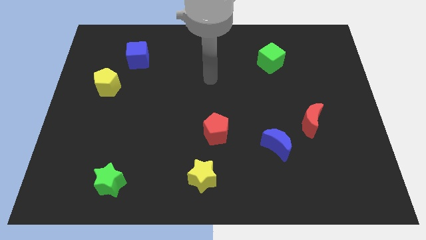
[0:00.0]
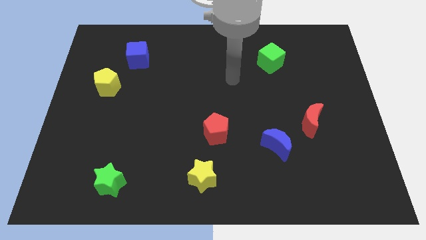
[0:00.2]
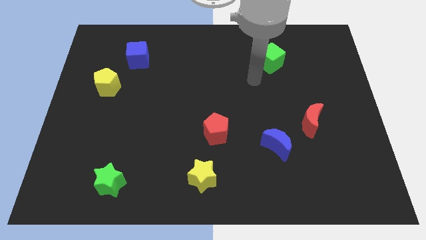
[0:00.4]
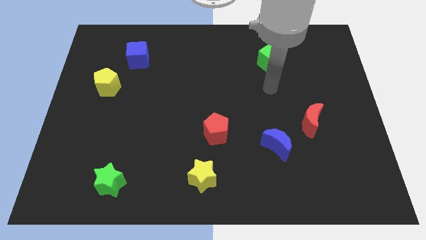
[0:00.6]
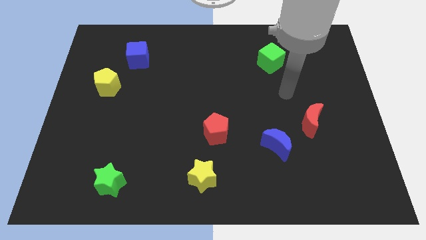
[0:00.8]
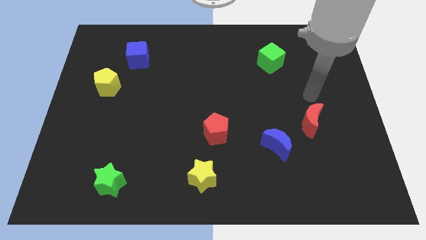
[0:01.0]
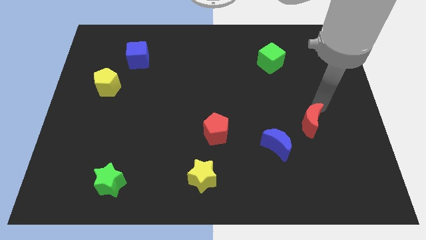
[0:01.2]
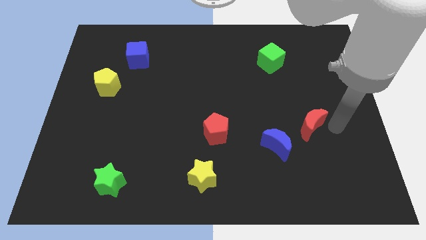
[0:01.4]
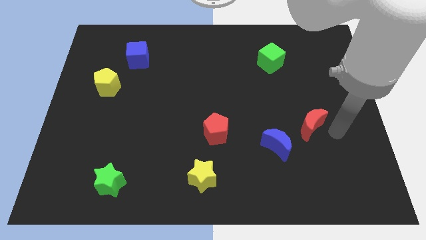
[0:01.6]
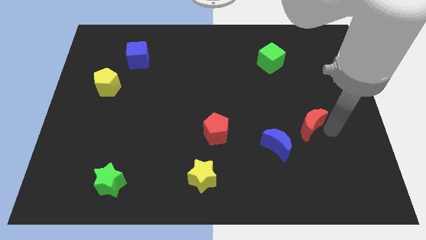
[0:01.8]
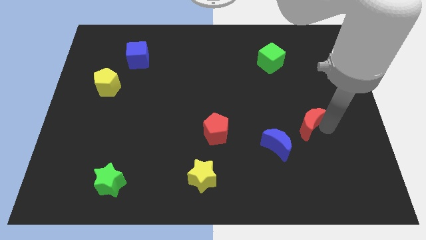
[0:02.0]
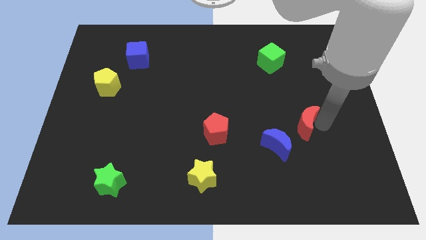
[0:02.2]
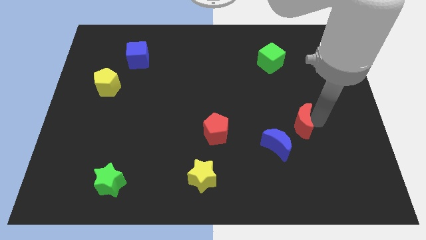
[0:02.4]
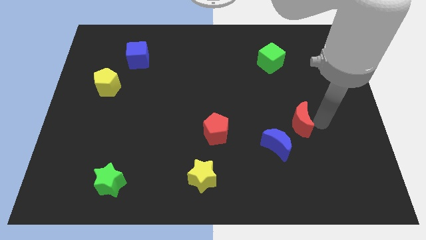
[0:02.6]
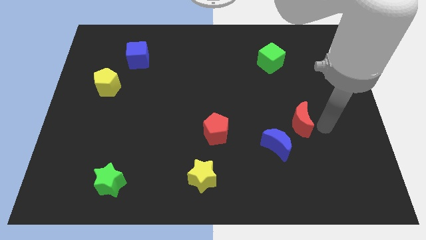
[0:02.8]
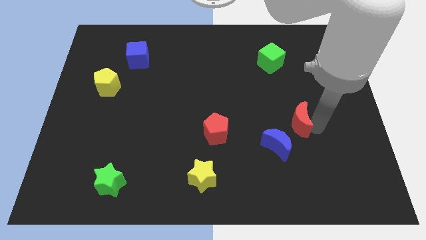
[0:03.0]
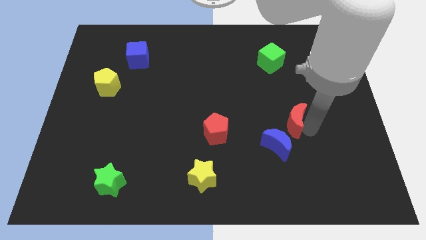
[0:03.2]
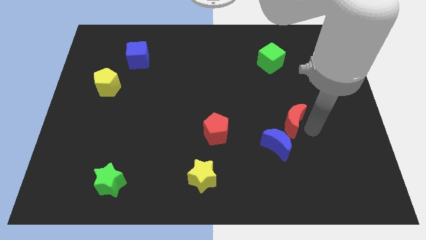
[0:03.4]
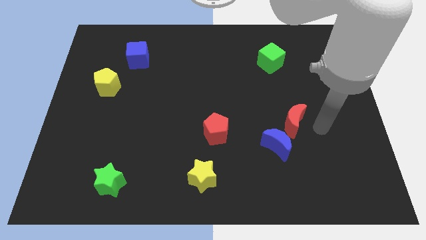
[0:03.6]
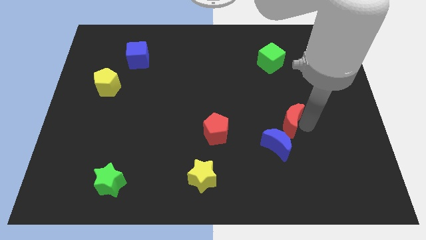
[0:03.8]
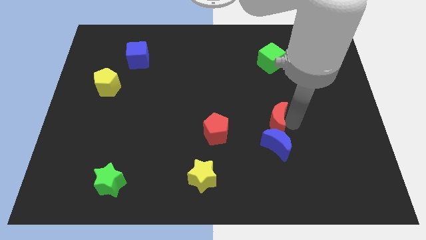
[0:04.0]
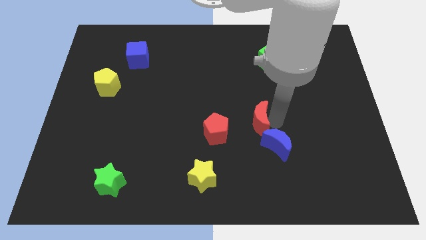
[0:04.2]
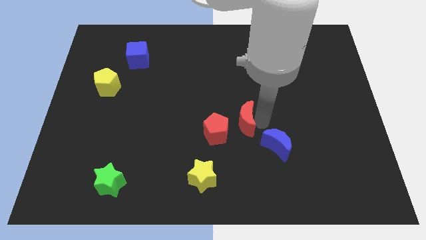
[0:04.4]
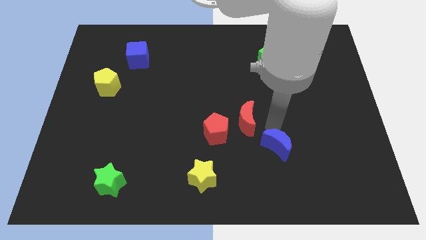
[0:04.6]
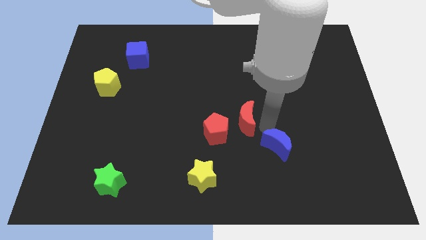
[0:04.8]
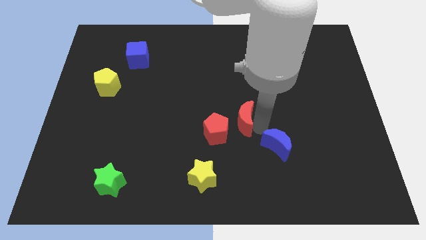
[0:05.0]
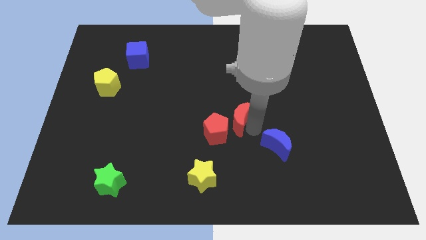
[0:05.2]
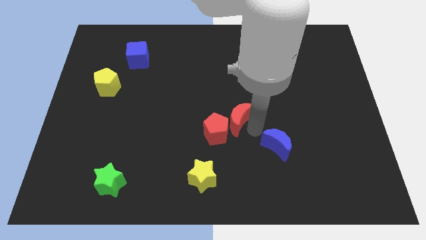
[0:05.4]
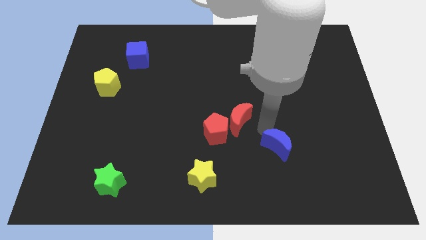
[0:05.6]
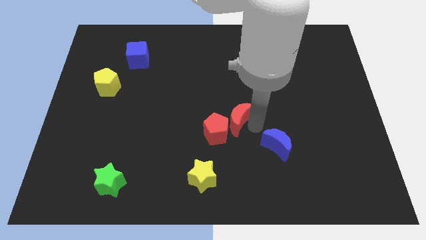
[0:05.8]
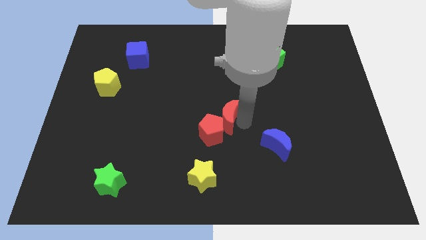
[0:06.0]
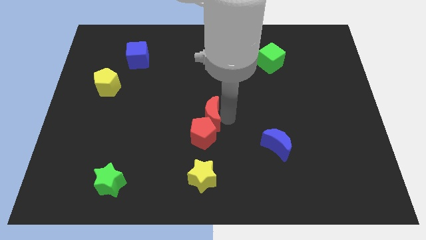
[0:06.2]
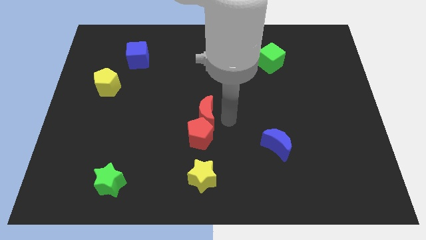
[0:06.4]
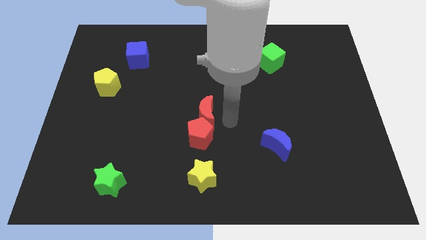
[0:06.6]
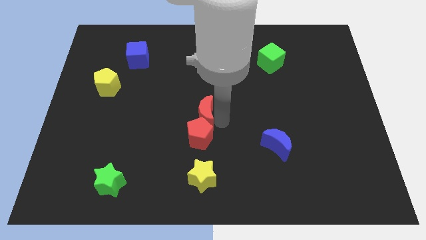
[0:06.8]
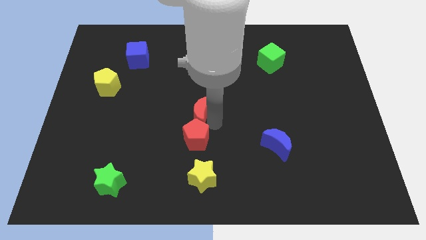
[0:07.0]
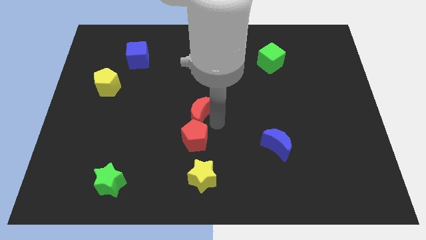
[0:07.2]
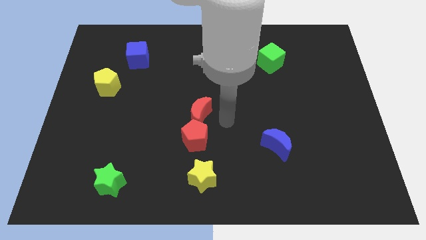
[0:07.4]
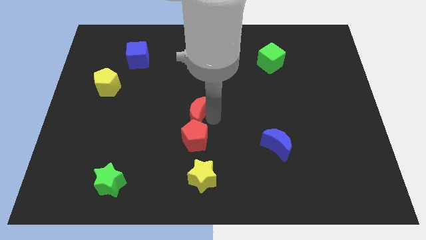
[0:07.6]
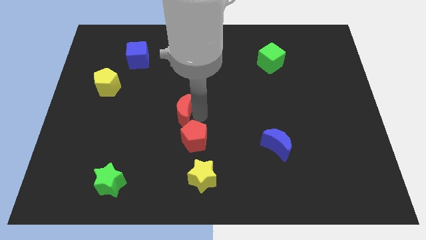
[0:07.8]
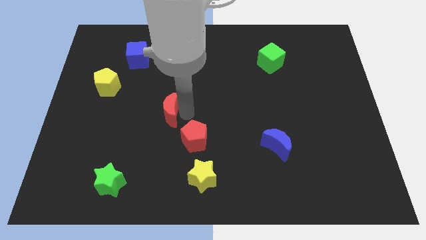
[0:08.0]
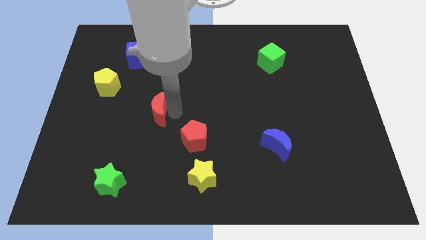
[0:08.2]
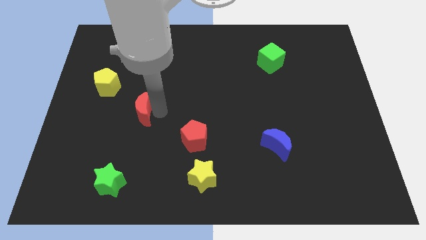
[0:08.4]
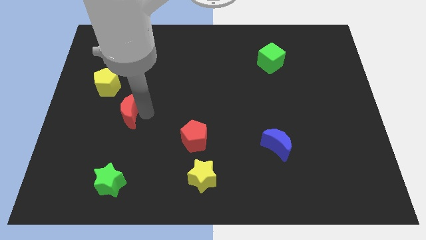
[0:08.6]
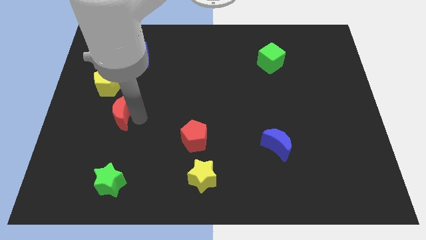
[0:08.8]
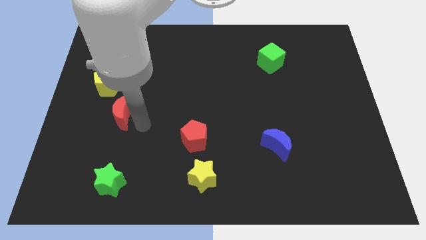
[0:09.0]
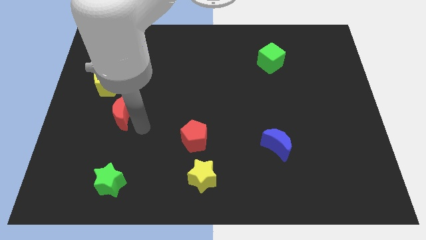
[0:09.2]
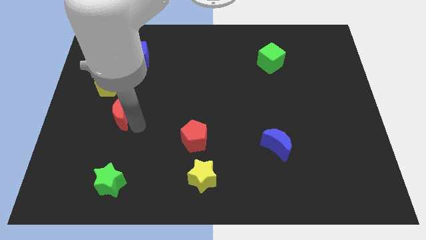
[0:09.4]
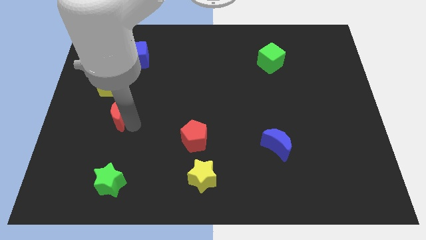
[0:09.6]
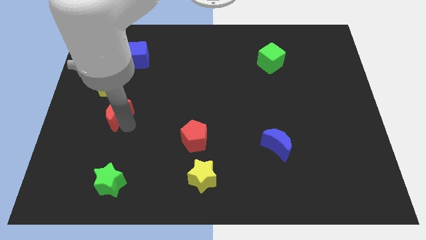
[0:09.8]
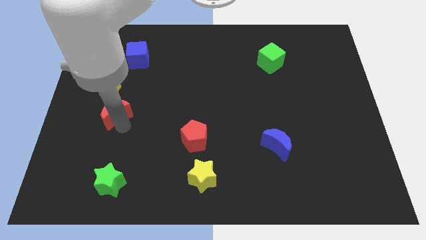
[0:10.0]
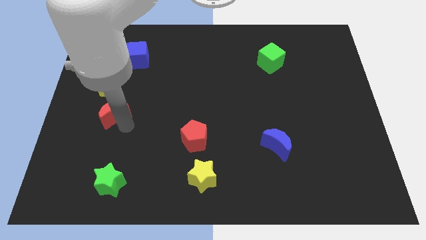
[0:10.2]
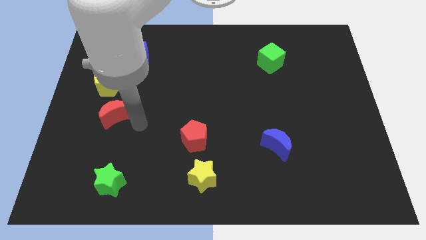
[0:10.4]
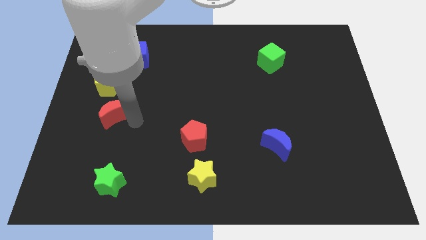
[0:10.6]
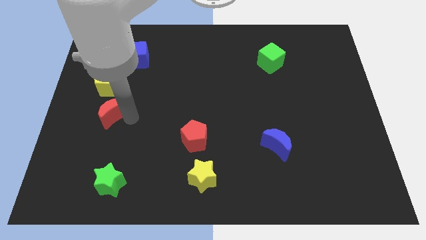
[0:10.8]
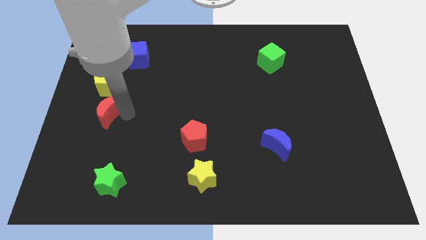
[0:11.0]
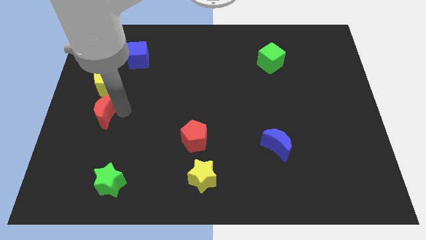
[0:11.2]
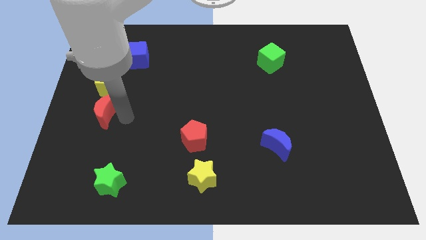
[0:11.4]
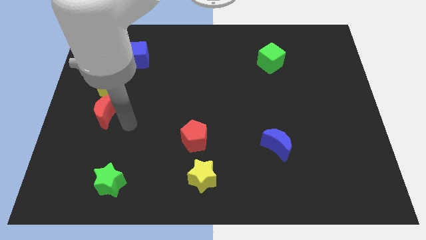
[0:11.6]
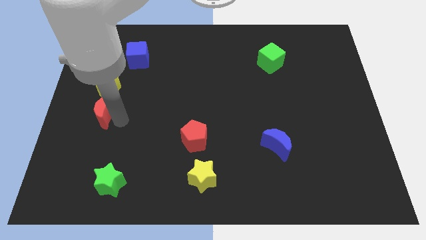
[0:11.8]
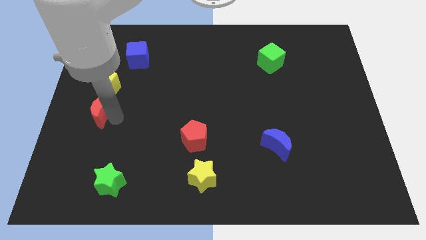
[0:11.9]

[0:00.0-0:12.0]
slide the red moon to the center left
